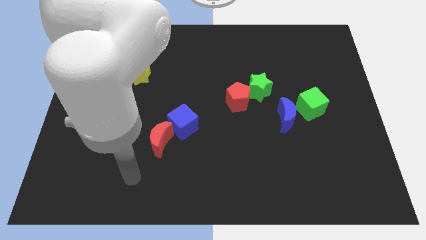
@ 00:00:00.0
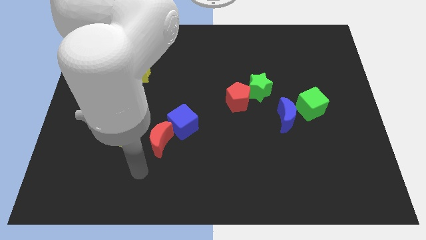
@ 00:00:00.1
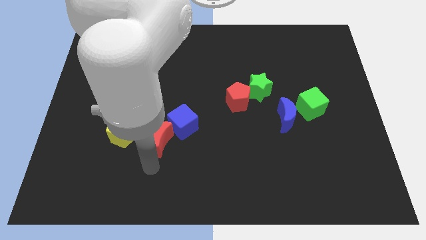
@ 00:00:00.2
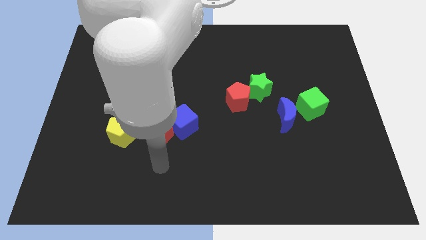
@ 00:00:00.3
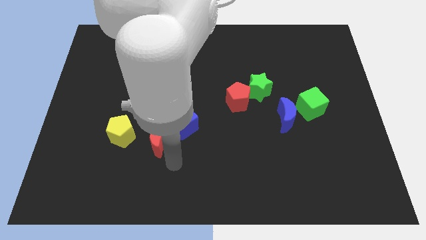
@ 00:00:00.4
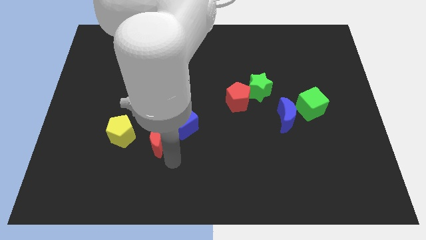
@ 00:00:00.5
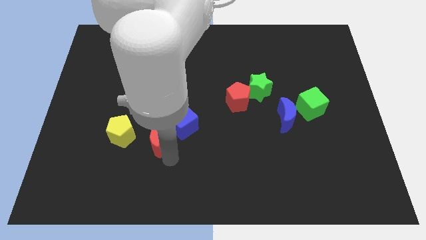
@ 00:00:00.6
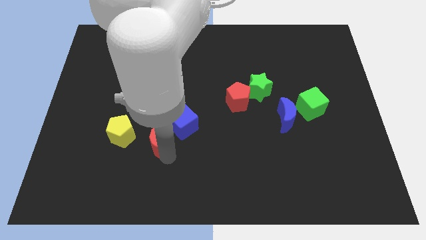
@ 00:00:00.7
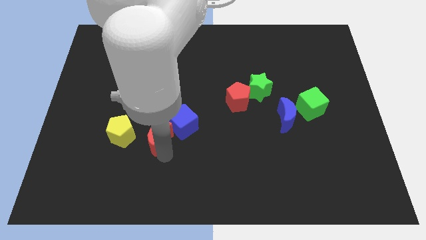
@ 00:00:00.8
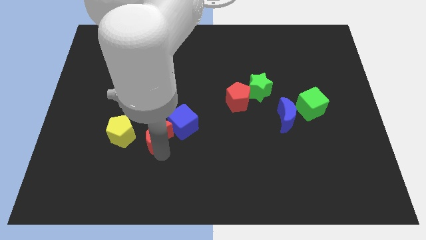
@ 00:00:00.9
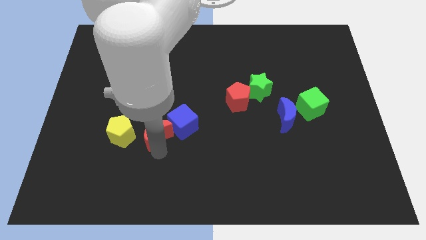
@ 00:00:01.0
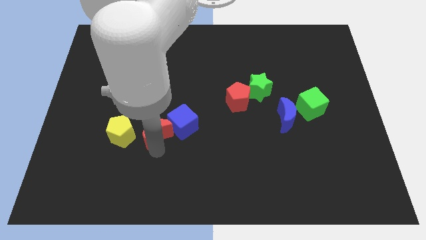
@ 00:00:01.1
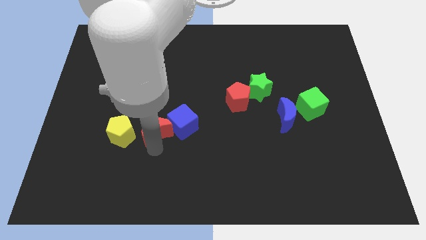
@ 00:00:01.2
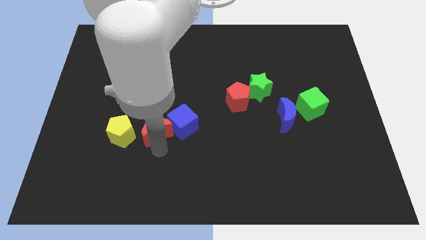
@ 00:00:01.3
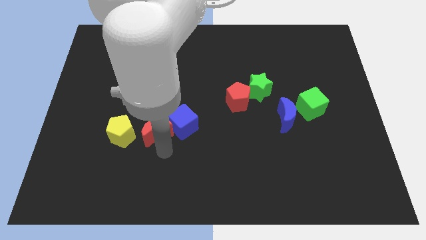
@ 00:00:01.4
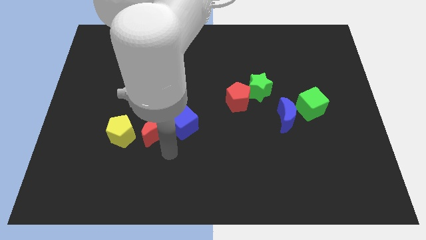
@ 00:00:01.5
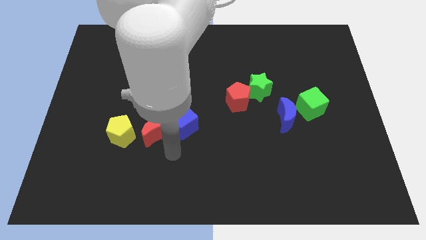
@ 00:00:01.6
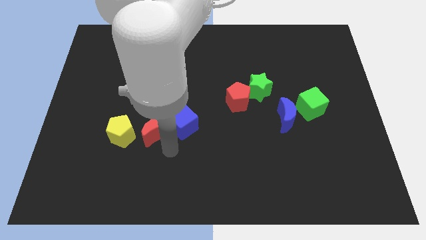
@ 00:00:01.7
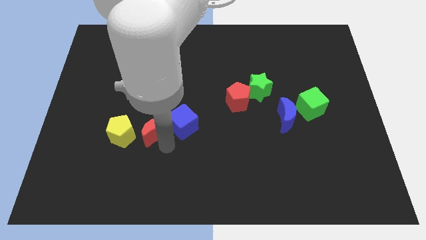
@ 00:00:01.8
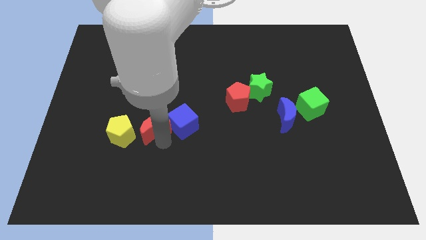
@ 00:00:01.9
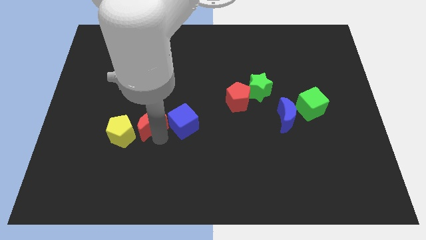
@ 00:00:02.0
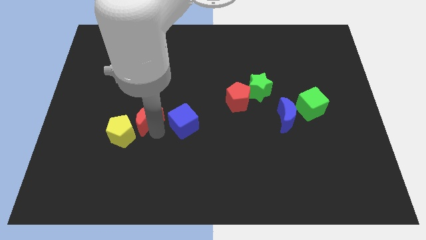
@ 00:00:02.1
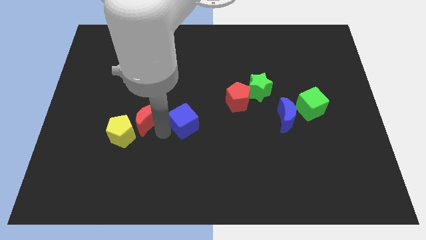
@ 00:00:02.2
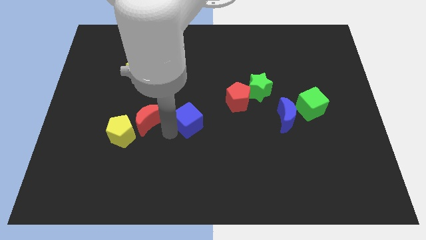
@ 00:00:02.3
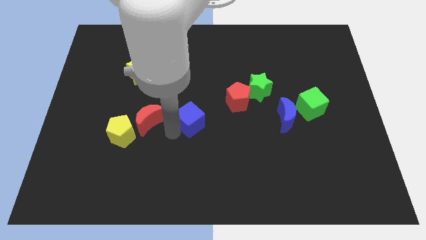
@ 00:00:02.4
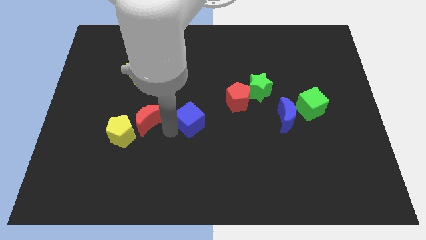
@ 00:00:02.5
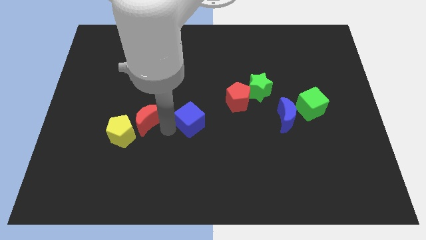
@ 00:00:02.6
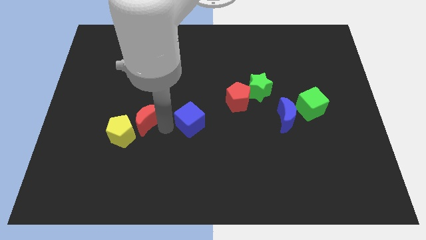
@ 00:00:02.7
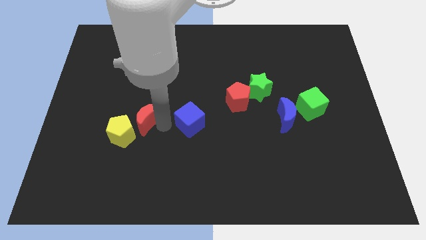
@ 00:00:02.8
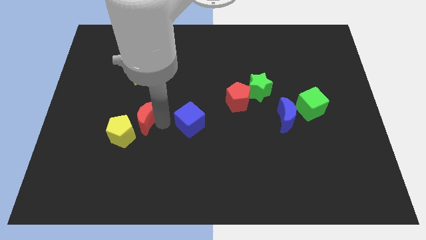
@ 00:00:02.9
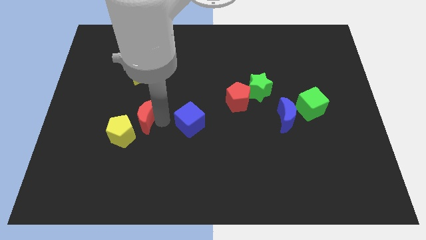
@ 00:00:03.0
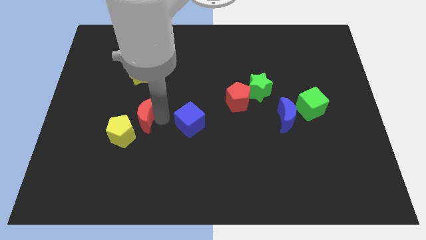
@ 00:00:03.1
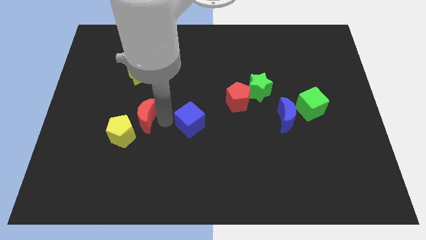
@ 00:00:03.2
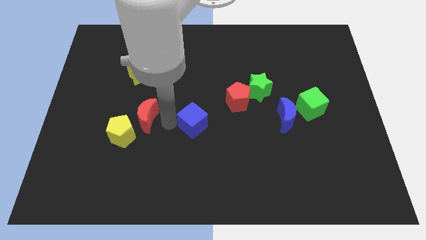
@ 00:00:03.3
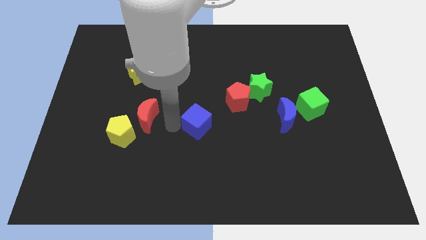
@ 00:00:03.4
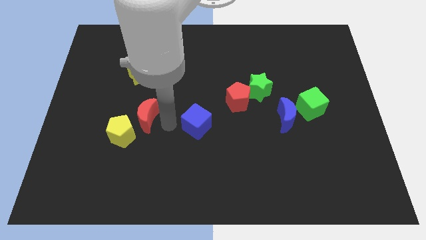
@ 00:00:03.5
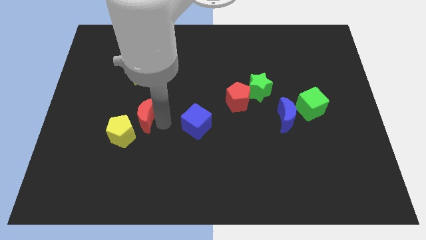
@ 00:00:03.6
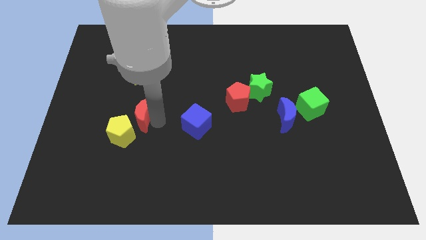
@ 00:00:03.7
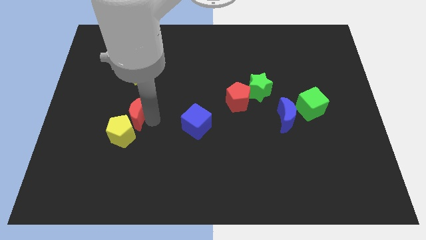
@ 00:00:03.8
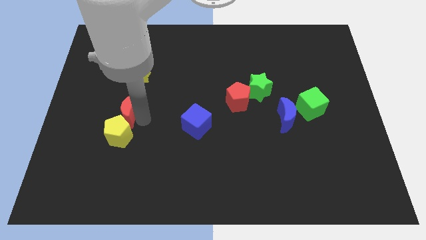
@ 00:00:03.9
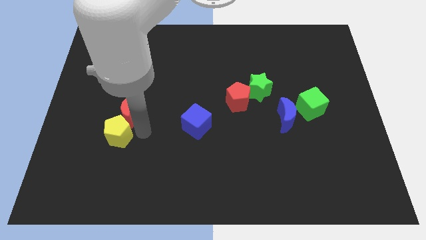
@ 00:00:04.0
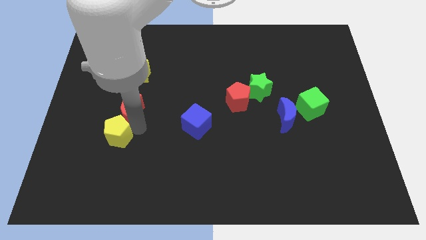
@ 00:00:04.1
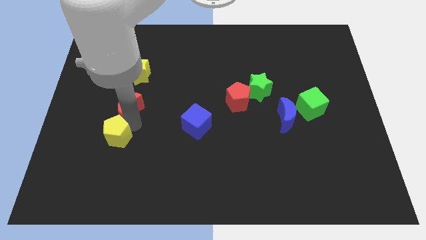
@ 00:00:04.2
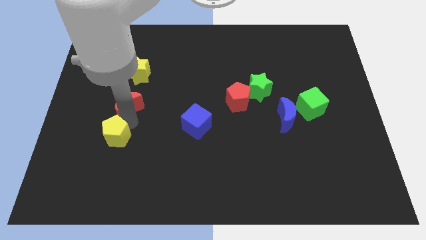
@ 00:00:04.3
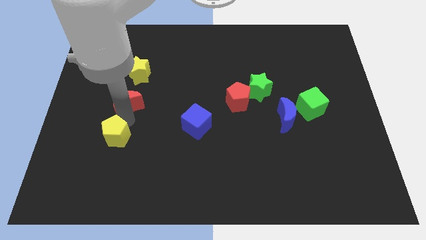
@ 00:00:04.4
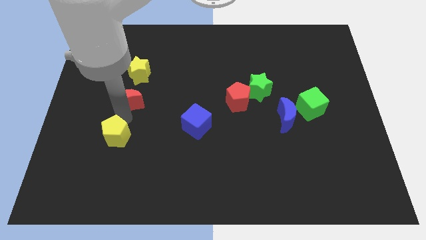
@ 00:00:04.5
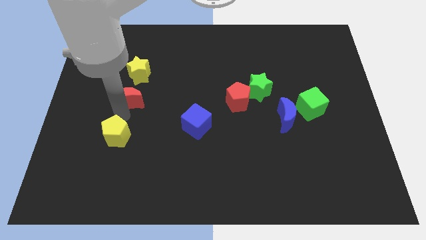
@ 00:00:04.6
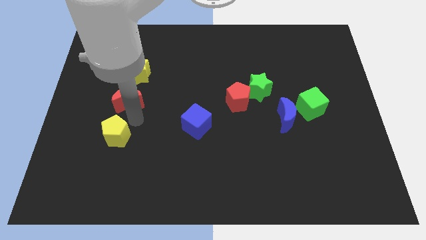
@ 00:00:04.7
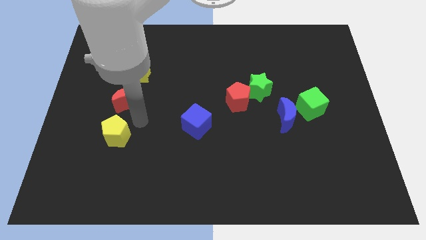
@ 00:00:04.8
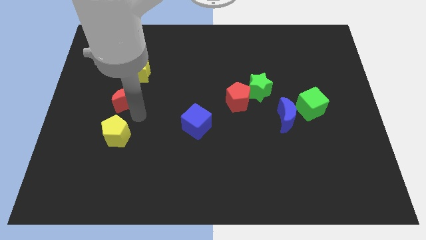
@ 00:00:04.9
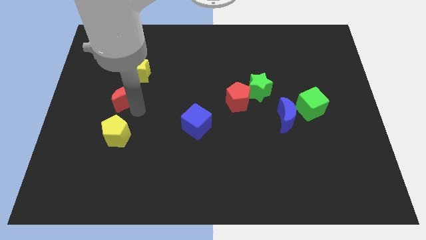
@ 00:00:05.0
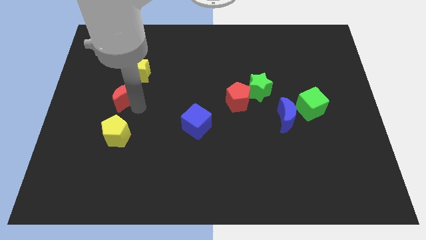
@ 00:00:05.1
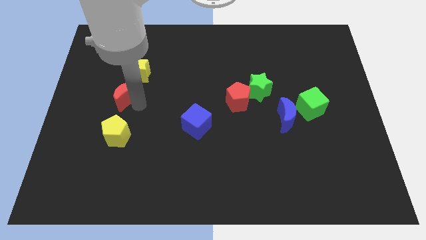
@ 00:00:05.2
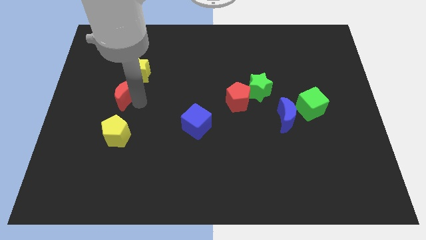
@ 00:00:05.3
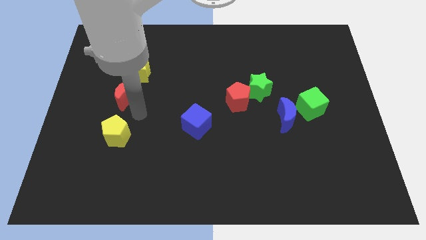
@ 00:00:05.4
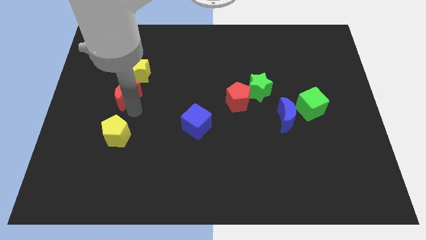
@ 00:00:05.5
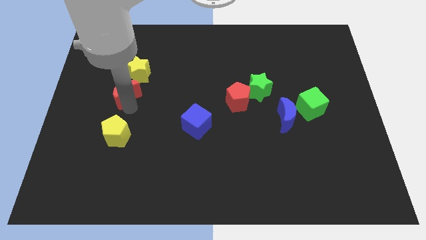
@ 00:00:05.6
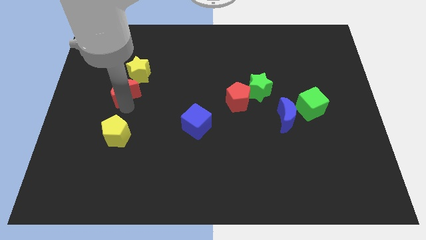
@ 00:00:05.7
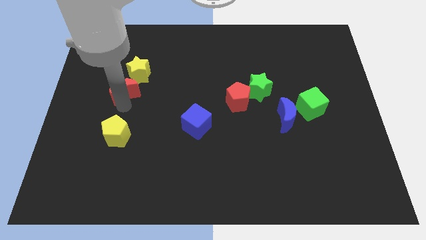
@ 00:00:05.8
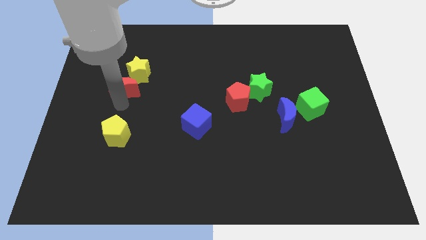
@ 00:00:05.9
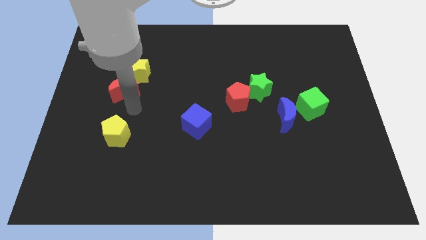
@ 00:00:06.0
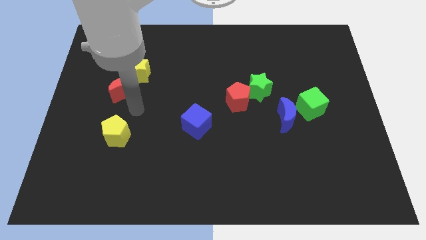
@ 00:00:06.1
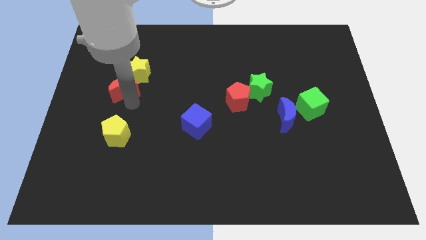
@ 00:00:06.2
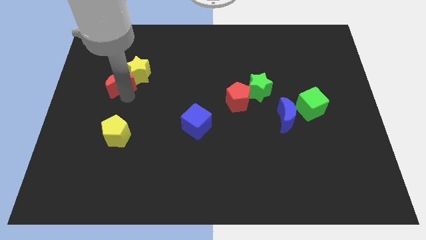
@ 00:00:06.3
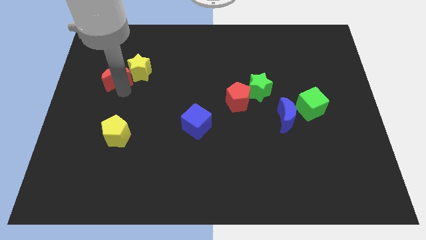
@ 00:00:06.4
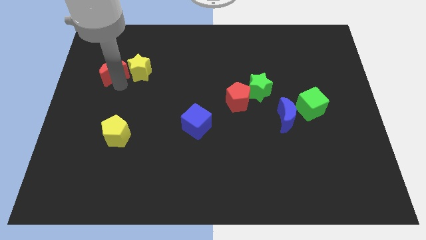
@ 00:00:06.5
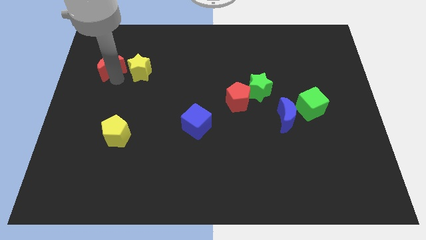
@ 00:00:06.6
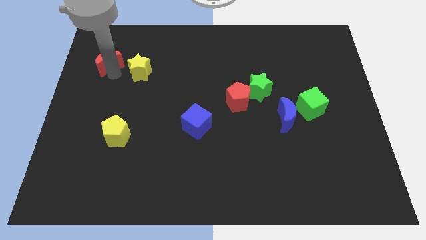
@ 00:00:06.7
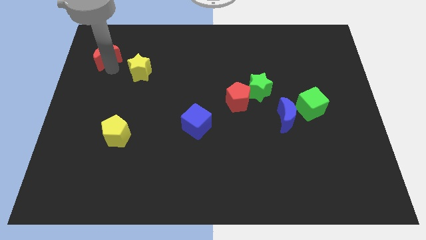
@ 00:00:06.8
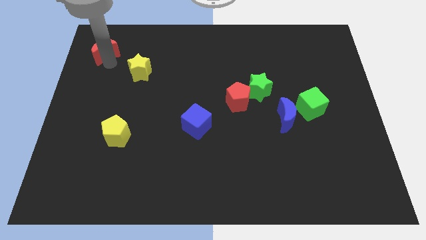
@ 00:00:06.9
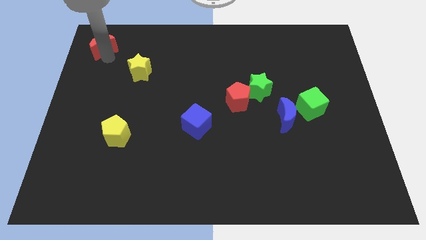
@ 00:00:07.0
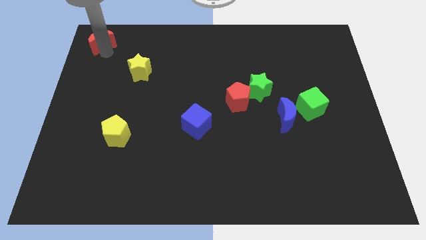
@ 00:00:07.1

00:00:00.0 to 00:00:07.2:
move the red moon to the top left
